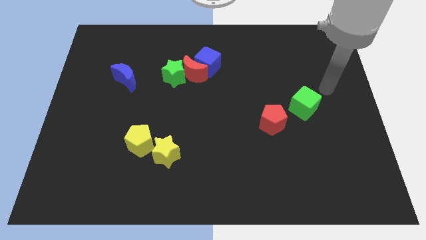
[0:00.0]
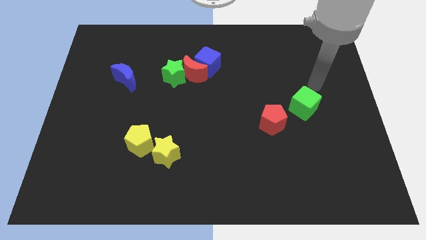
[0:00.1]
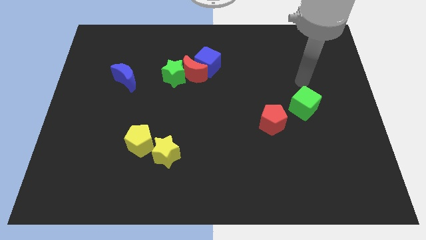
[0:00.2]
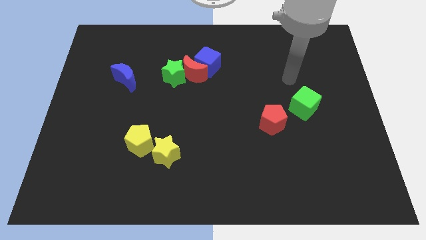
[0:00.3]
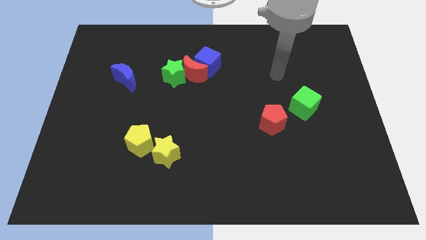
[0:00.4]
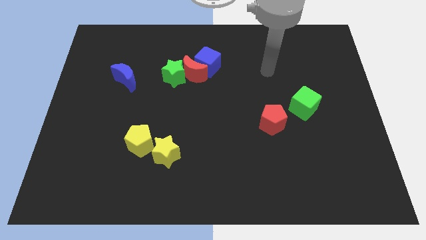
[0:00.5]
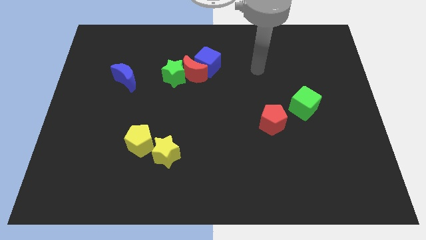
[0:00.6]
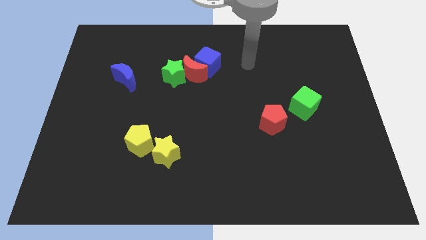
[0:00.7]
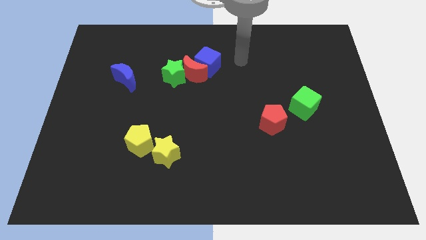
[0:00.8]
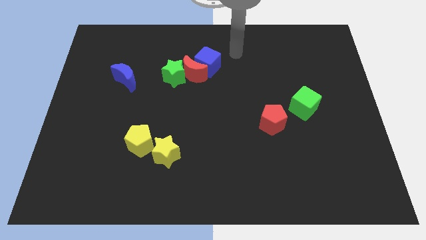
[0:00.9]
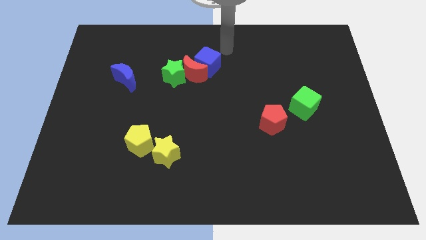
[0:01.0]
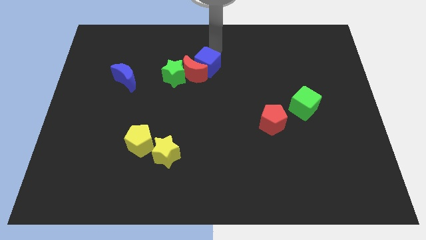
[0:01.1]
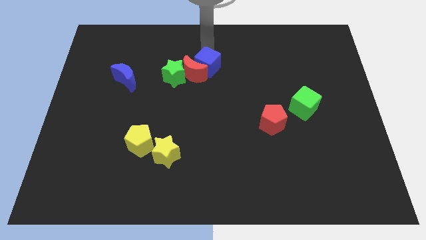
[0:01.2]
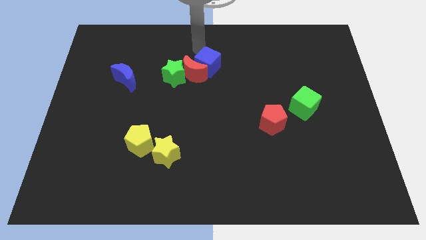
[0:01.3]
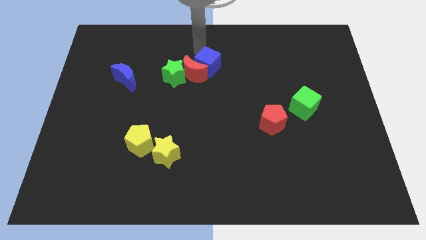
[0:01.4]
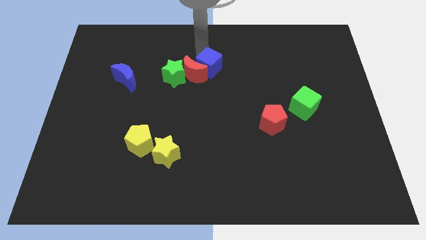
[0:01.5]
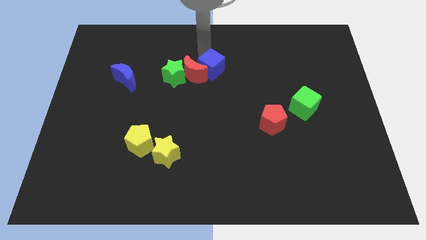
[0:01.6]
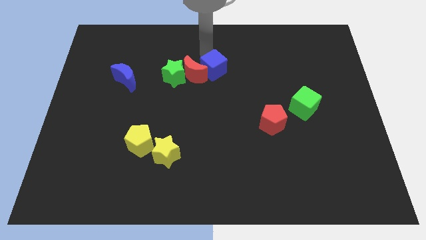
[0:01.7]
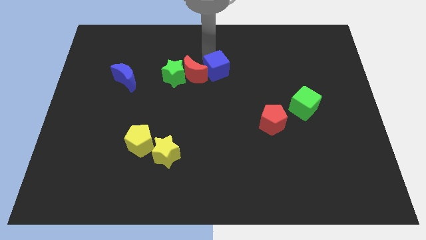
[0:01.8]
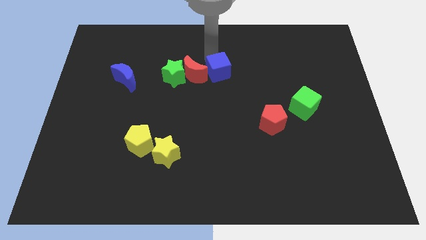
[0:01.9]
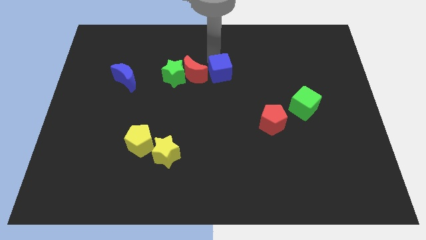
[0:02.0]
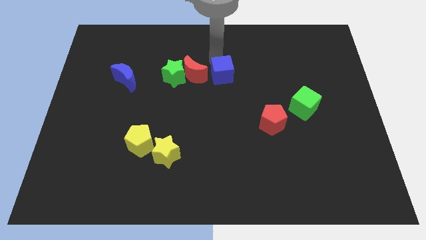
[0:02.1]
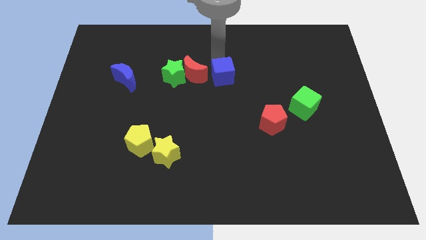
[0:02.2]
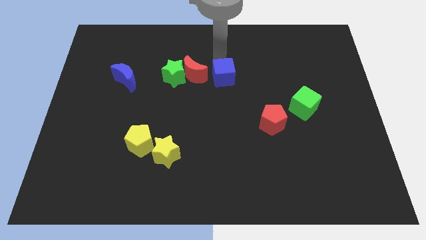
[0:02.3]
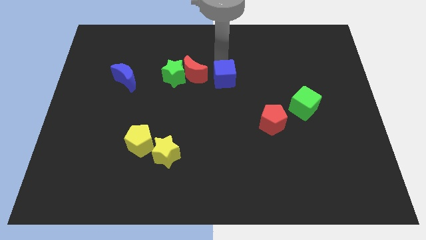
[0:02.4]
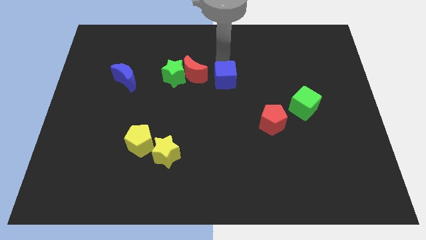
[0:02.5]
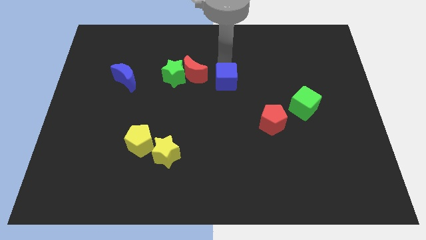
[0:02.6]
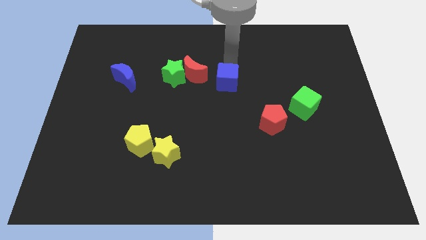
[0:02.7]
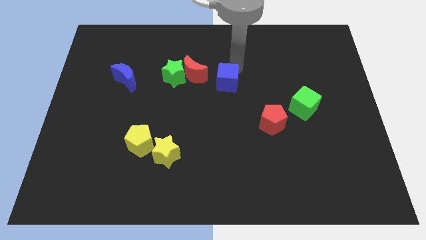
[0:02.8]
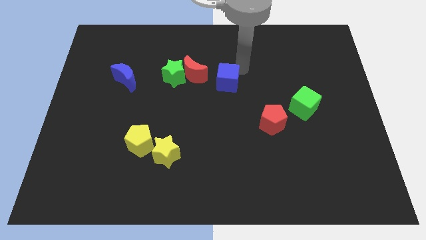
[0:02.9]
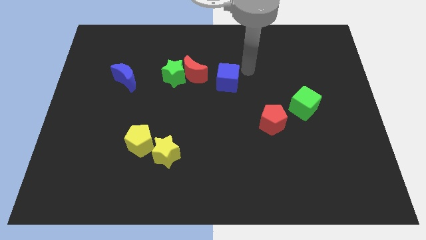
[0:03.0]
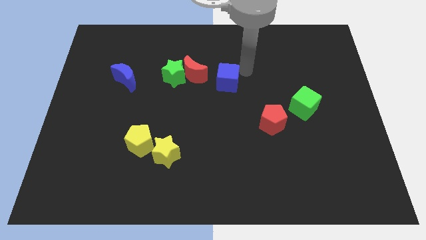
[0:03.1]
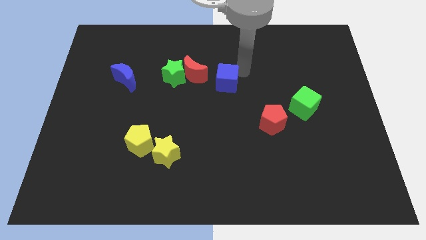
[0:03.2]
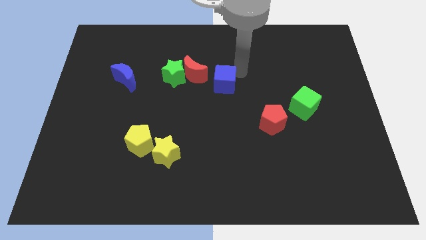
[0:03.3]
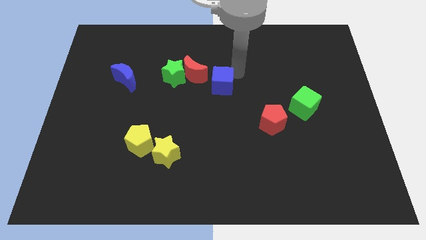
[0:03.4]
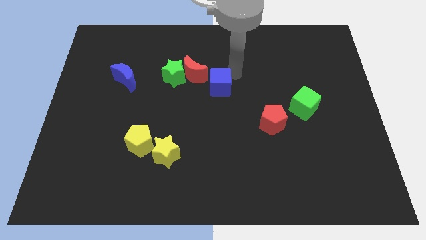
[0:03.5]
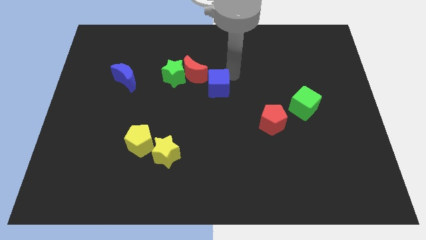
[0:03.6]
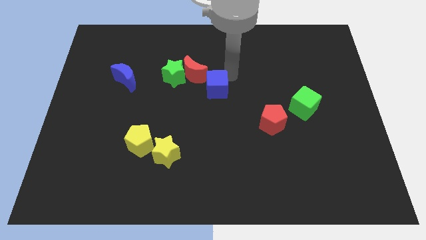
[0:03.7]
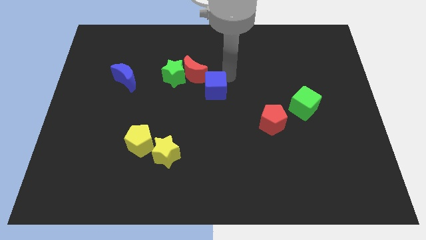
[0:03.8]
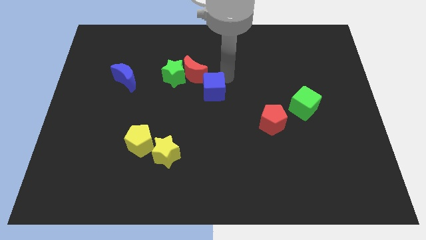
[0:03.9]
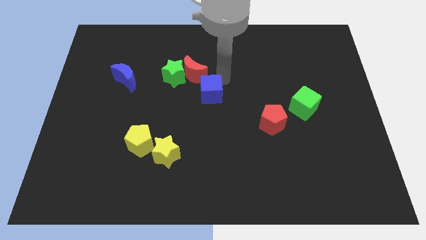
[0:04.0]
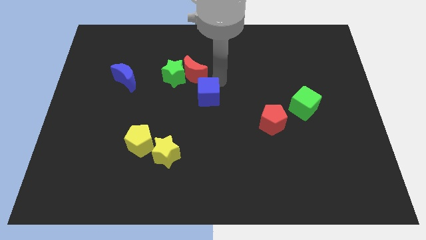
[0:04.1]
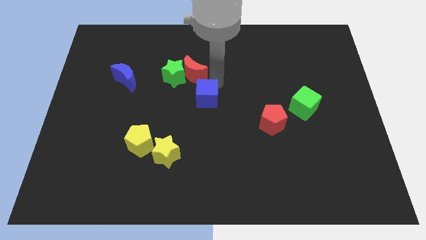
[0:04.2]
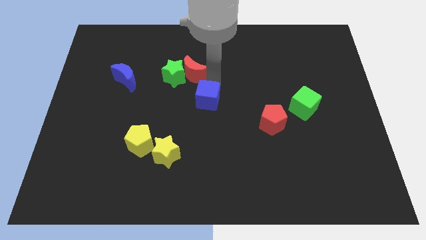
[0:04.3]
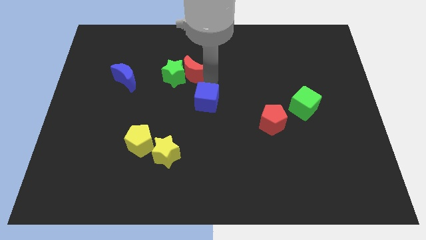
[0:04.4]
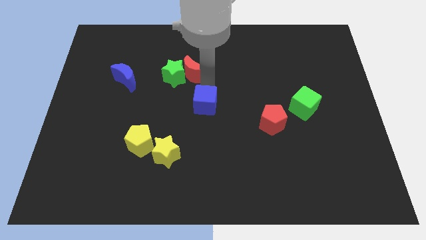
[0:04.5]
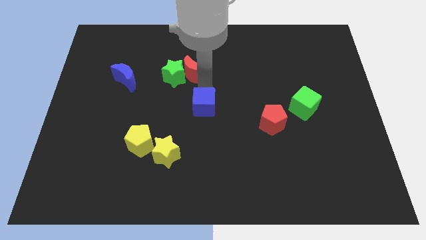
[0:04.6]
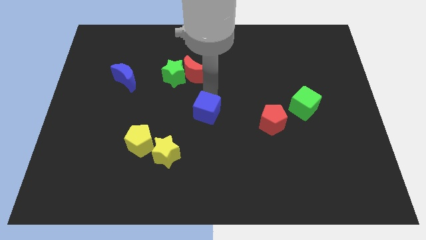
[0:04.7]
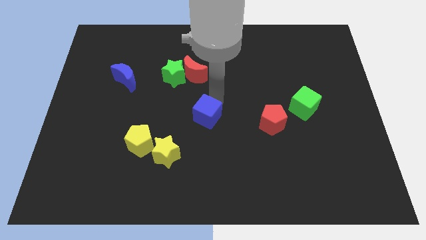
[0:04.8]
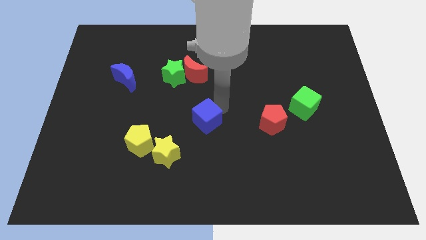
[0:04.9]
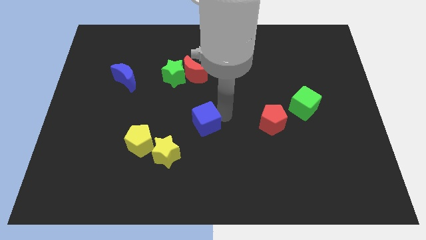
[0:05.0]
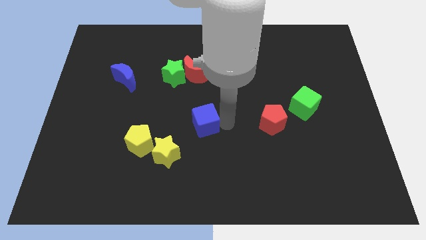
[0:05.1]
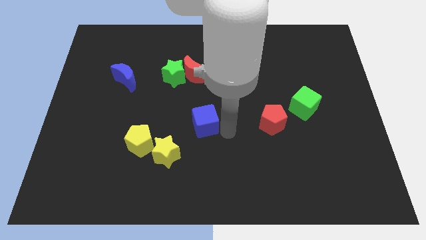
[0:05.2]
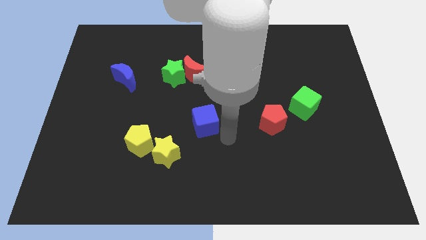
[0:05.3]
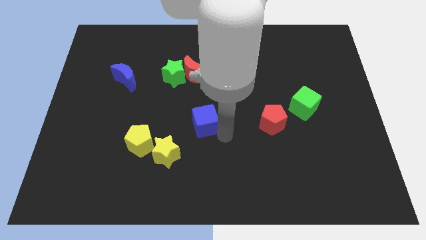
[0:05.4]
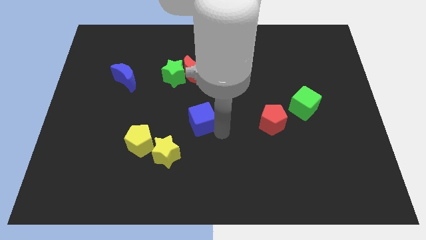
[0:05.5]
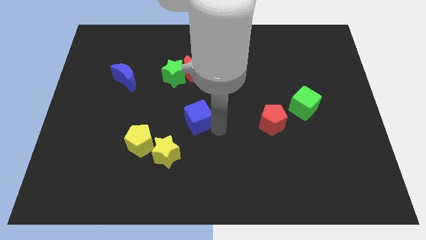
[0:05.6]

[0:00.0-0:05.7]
push the blue cube a little downwards and left

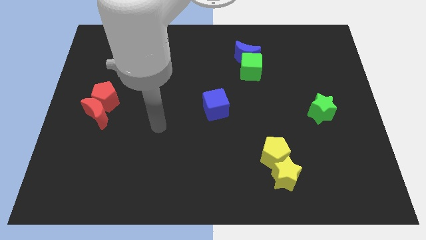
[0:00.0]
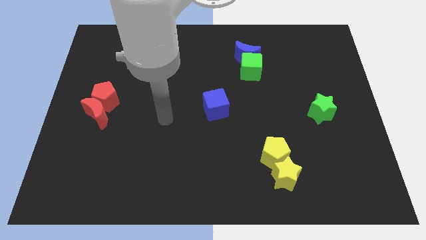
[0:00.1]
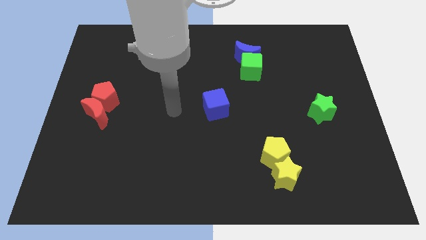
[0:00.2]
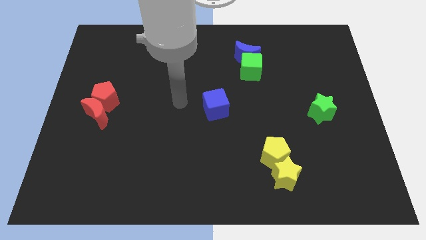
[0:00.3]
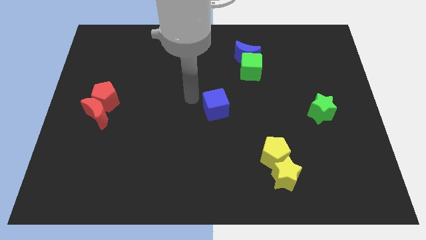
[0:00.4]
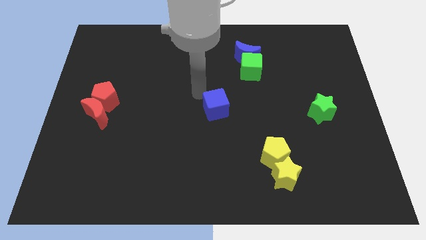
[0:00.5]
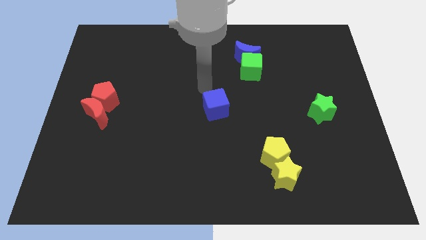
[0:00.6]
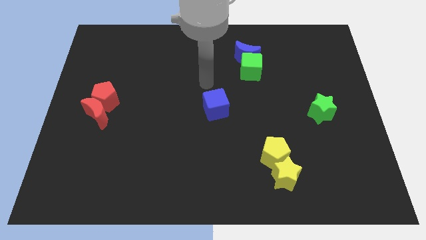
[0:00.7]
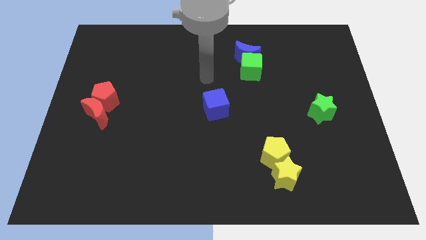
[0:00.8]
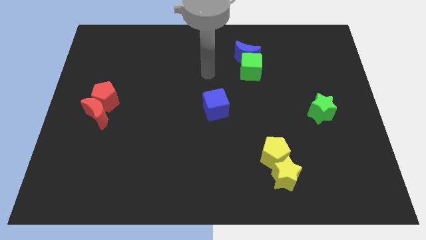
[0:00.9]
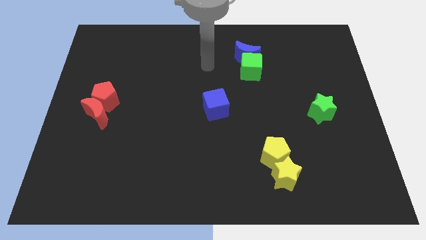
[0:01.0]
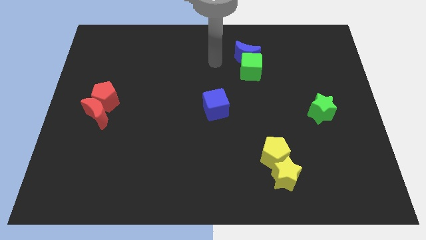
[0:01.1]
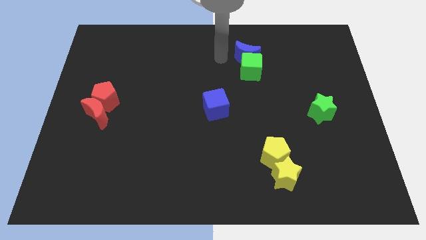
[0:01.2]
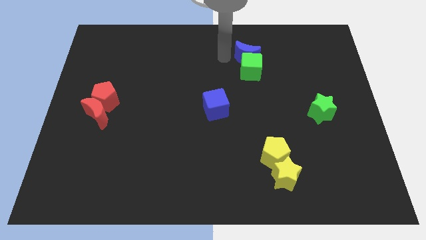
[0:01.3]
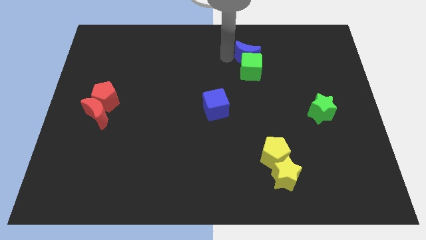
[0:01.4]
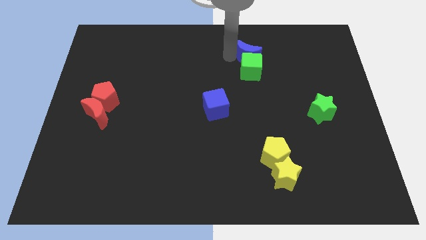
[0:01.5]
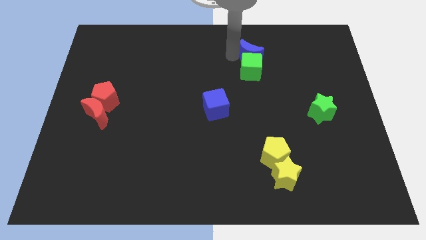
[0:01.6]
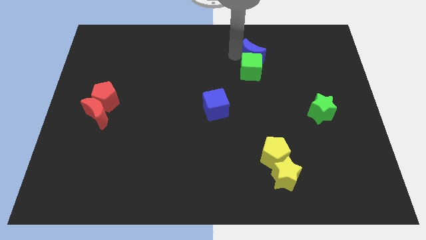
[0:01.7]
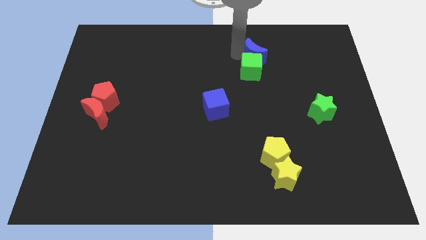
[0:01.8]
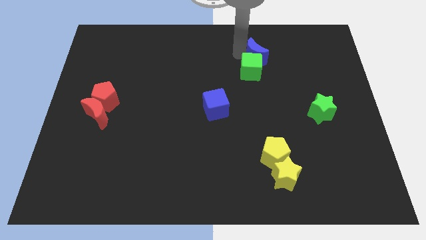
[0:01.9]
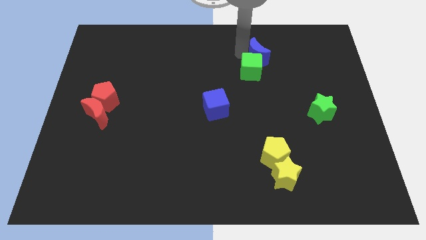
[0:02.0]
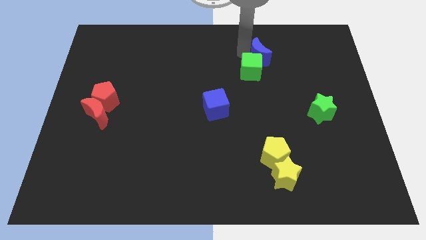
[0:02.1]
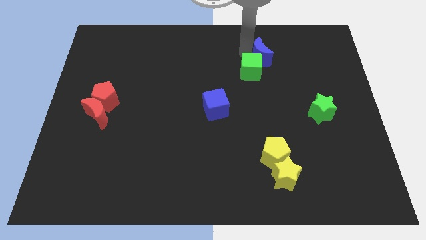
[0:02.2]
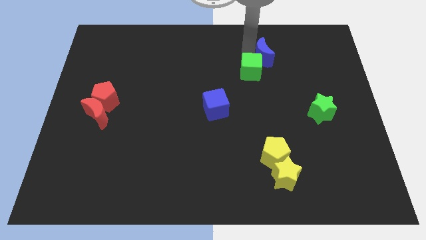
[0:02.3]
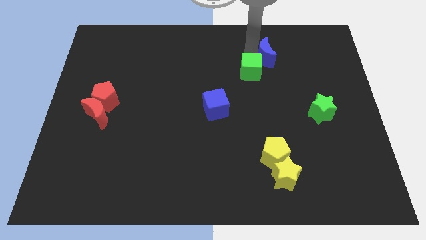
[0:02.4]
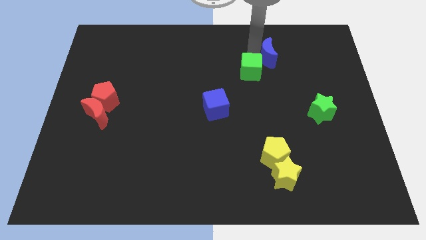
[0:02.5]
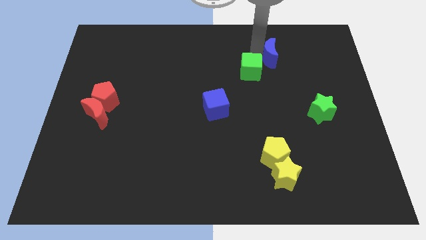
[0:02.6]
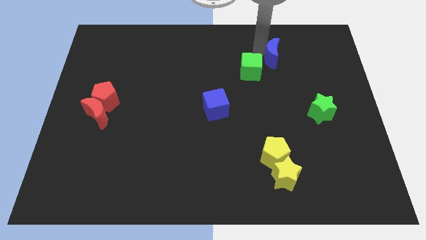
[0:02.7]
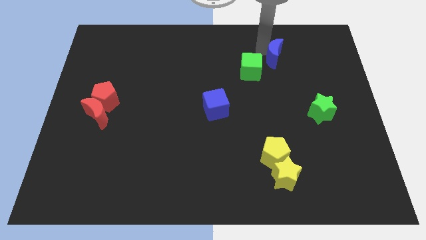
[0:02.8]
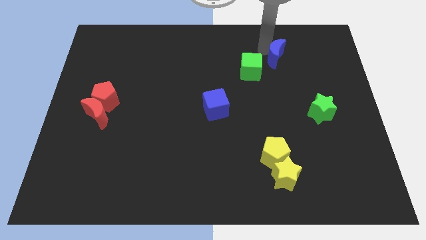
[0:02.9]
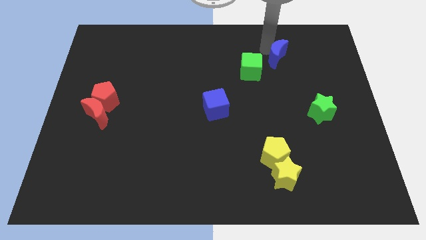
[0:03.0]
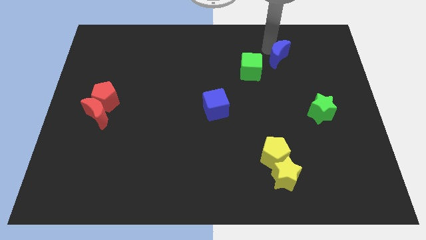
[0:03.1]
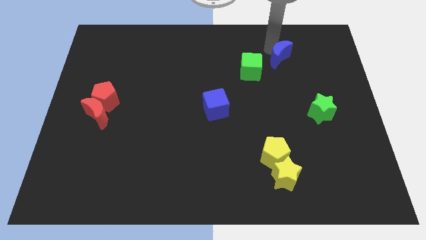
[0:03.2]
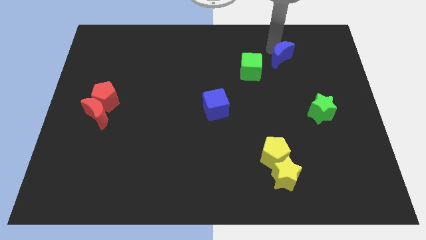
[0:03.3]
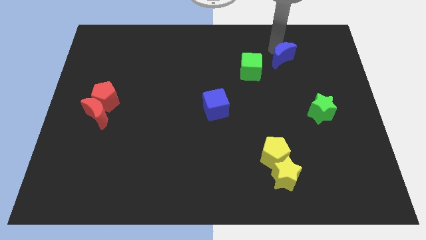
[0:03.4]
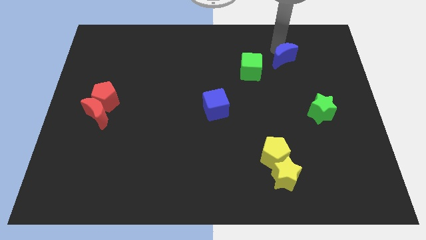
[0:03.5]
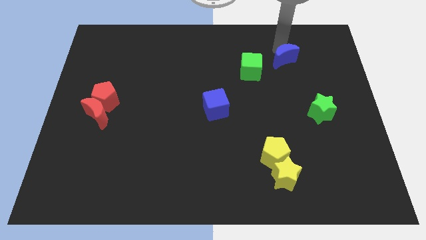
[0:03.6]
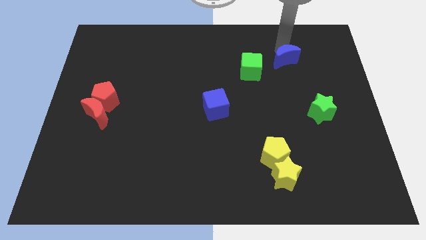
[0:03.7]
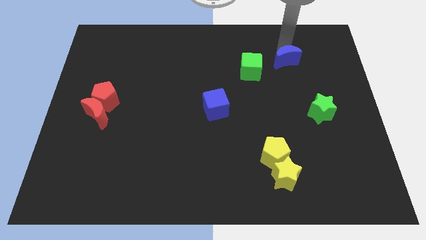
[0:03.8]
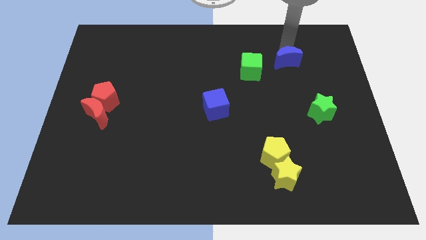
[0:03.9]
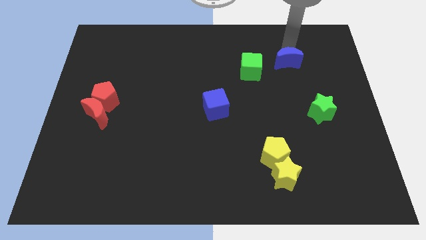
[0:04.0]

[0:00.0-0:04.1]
slightly push the blue moon downwards and to the right diagonally
